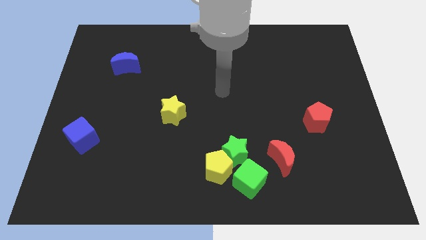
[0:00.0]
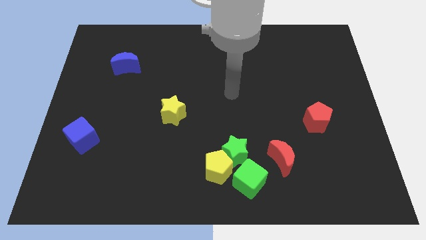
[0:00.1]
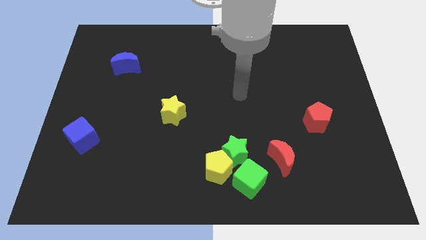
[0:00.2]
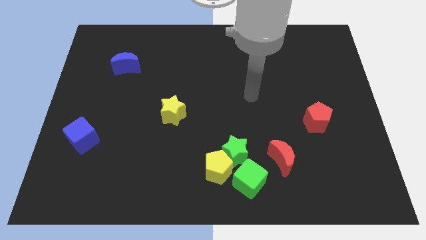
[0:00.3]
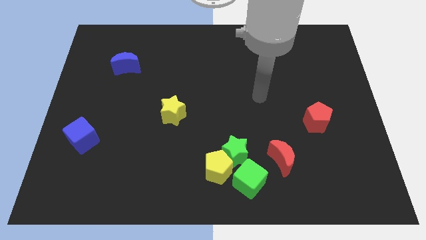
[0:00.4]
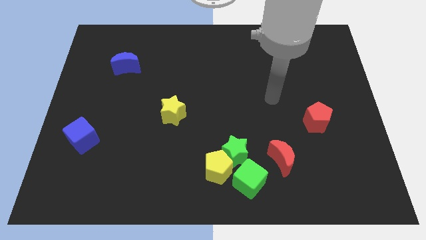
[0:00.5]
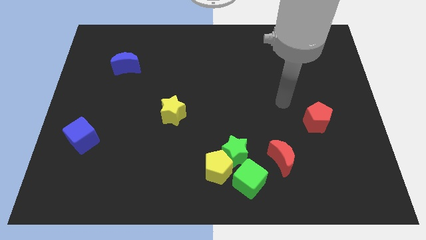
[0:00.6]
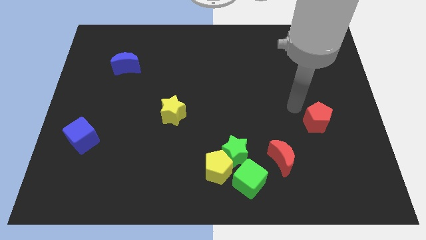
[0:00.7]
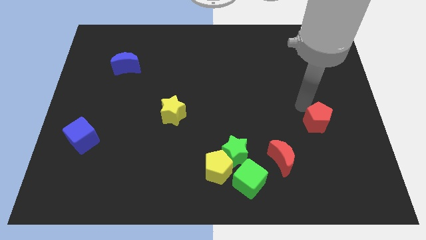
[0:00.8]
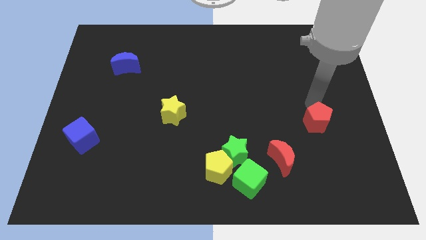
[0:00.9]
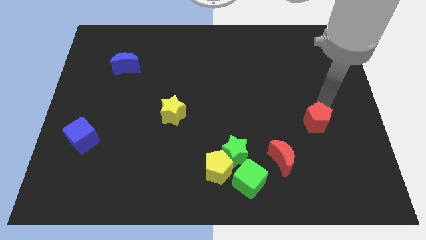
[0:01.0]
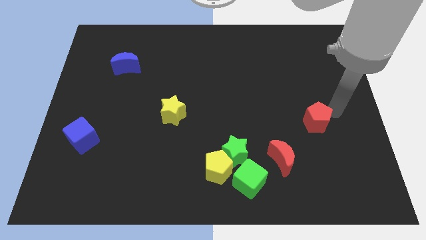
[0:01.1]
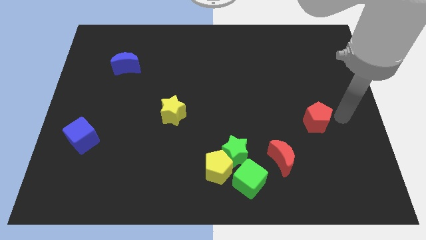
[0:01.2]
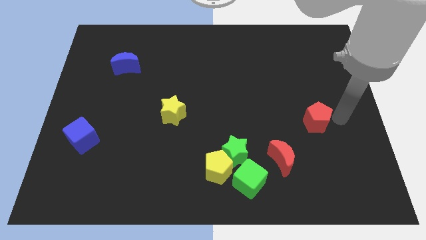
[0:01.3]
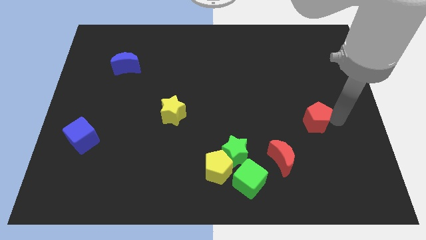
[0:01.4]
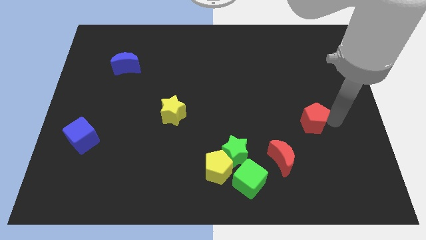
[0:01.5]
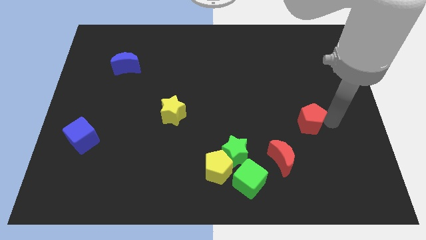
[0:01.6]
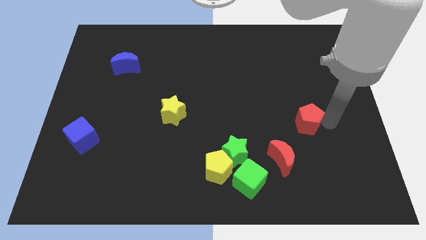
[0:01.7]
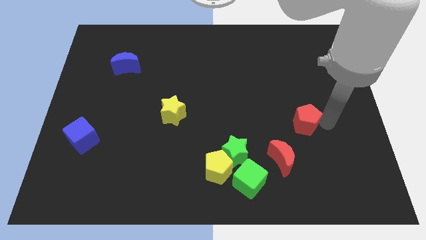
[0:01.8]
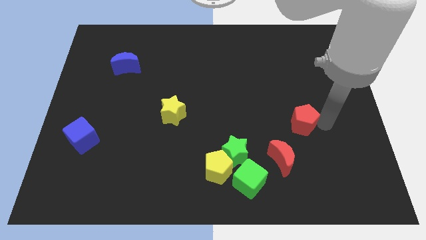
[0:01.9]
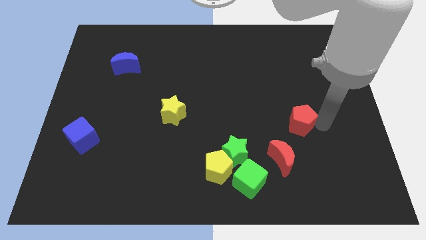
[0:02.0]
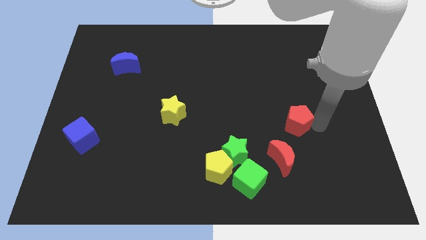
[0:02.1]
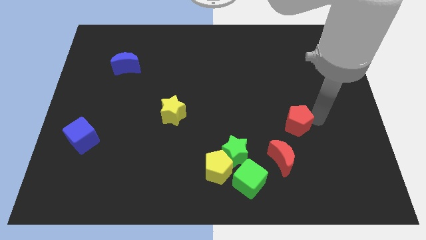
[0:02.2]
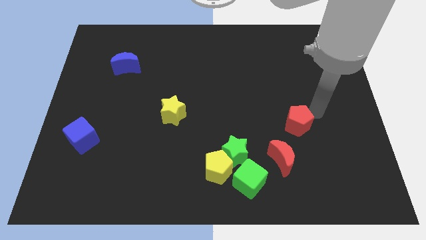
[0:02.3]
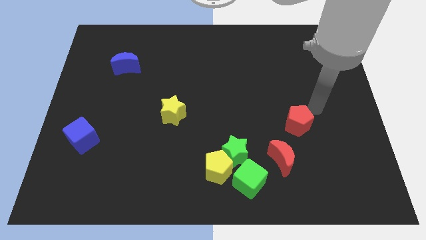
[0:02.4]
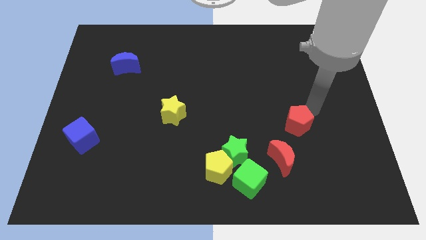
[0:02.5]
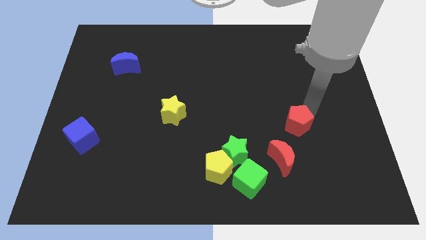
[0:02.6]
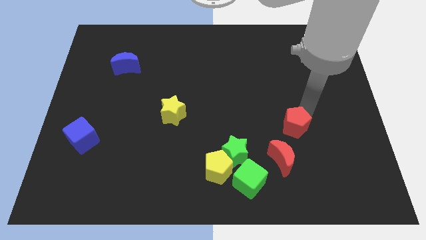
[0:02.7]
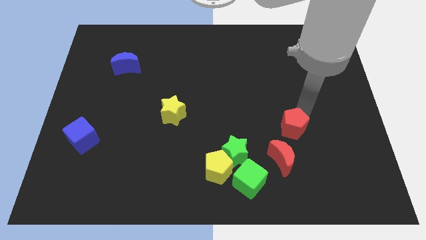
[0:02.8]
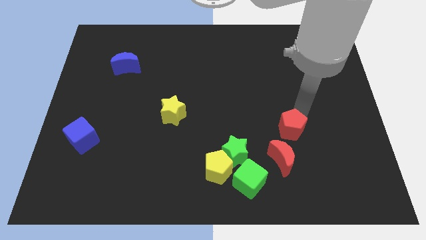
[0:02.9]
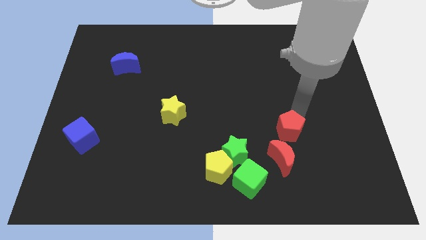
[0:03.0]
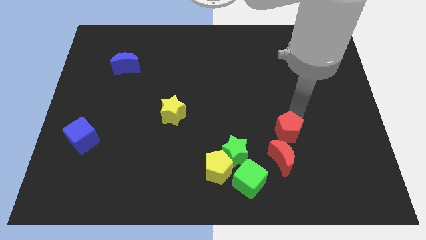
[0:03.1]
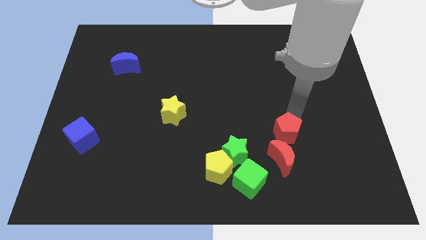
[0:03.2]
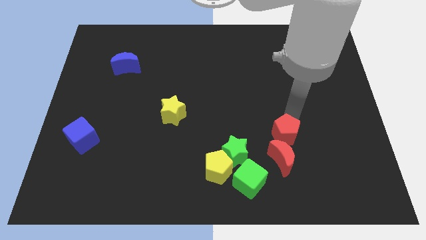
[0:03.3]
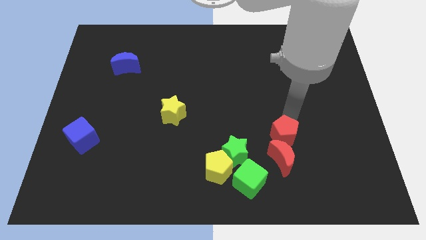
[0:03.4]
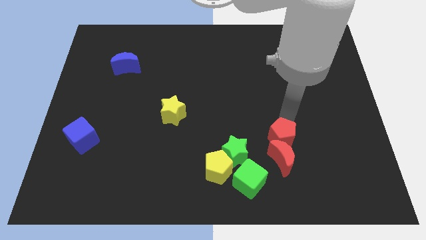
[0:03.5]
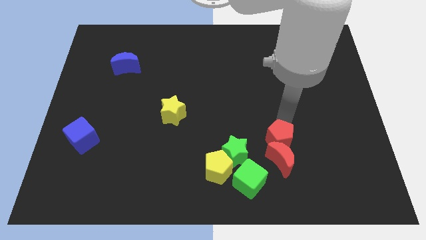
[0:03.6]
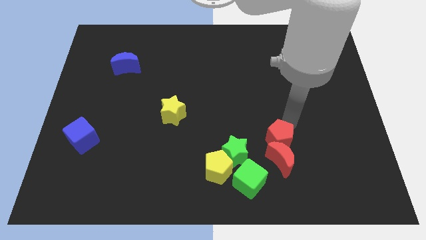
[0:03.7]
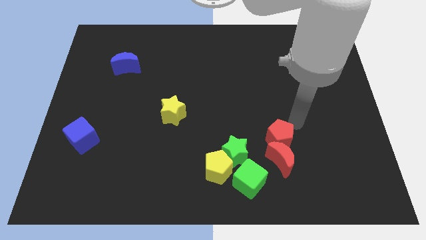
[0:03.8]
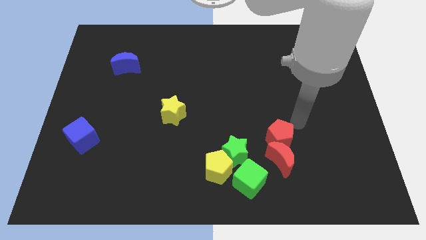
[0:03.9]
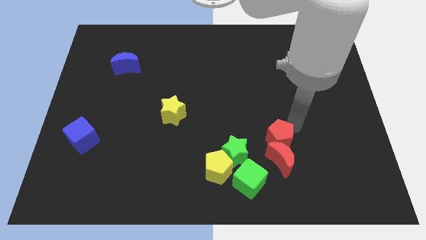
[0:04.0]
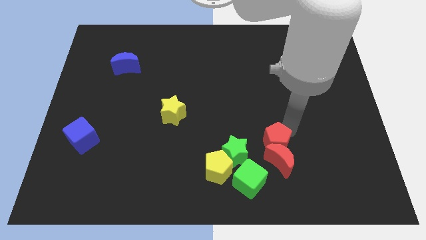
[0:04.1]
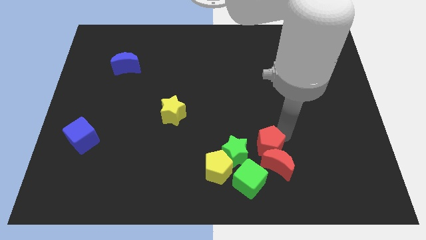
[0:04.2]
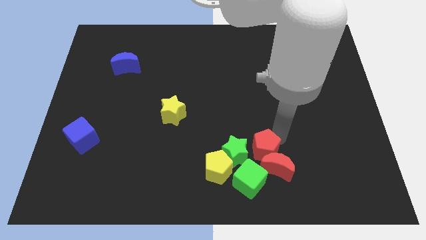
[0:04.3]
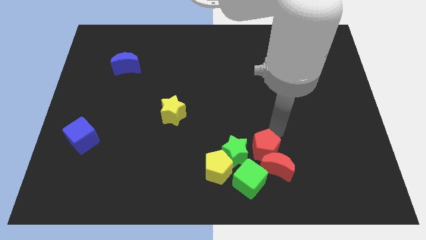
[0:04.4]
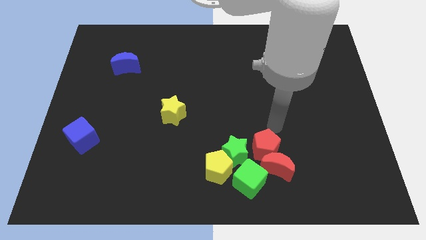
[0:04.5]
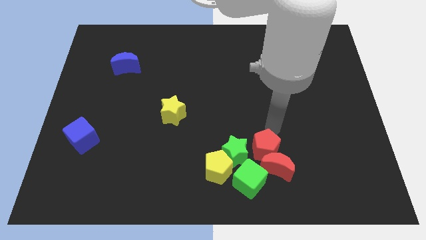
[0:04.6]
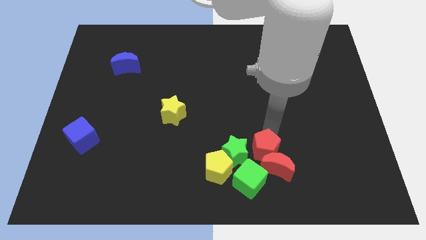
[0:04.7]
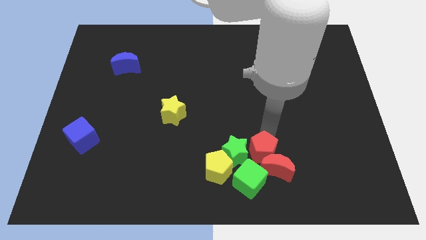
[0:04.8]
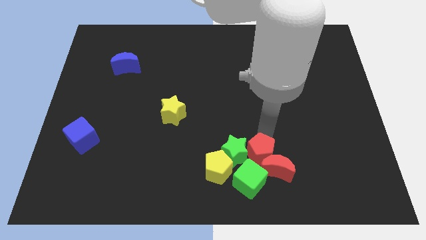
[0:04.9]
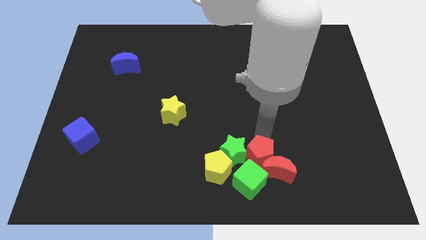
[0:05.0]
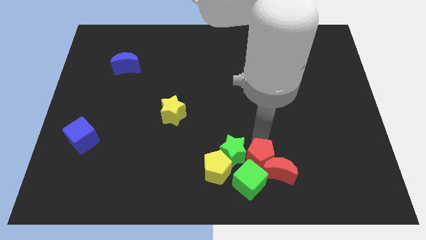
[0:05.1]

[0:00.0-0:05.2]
put the red pentagon next to the green cube

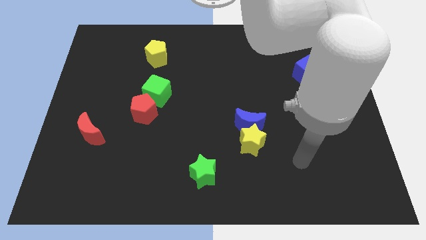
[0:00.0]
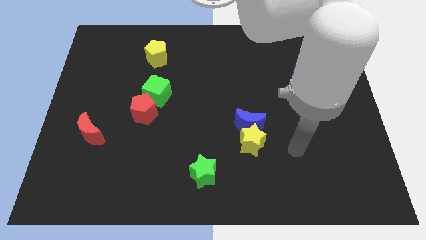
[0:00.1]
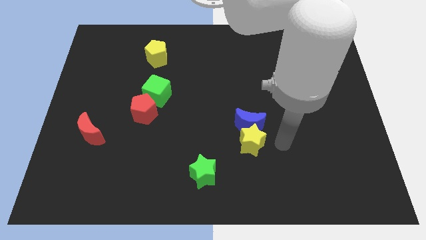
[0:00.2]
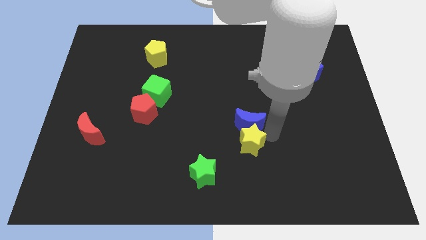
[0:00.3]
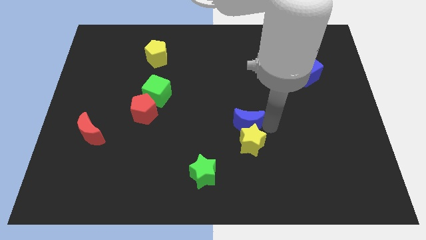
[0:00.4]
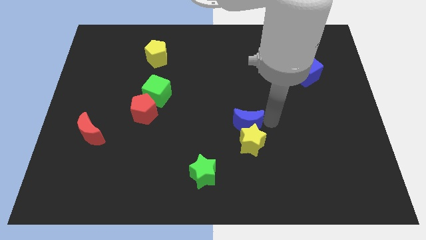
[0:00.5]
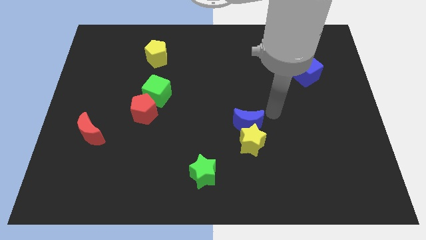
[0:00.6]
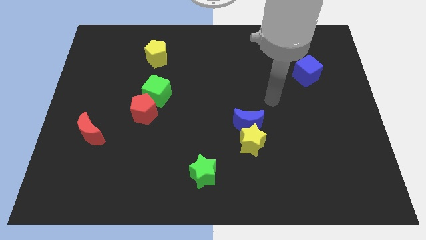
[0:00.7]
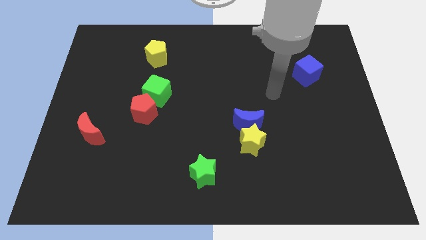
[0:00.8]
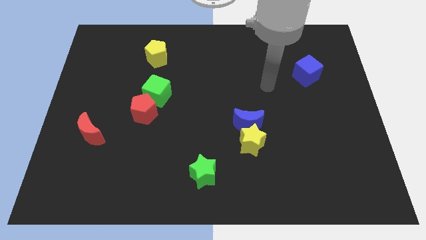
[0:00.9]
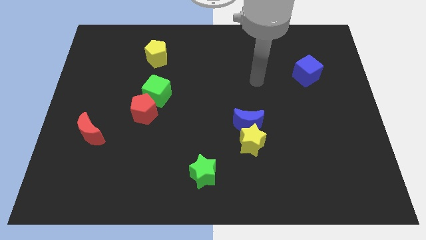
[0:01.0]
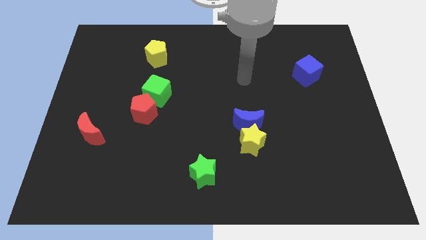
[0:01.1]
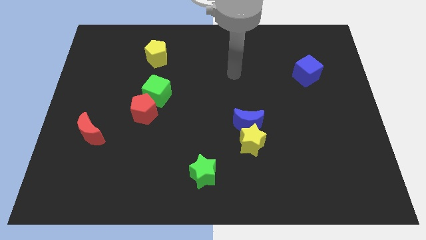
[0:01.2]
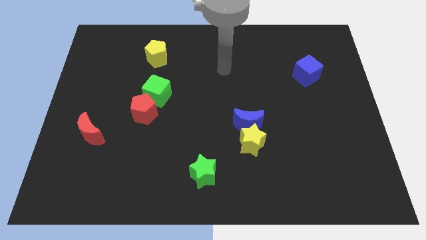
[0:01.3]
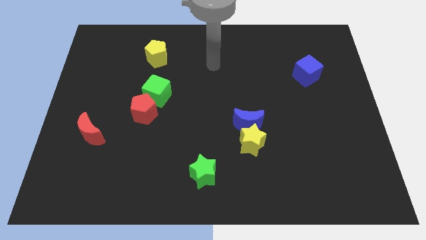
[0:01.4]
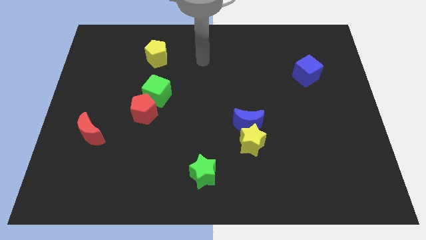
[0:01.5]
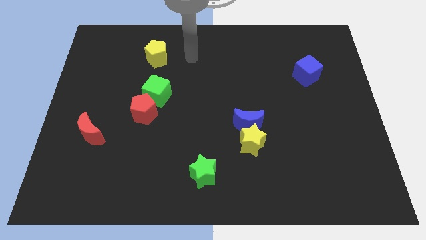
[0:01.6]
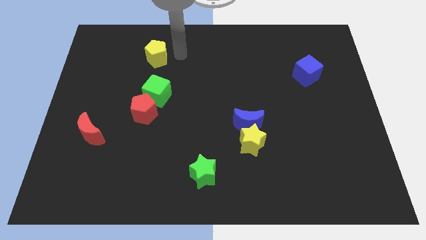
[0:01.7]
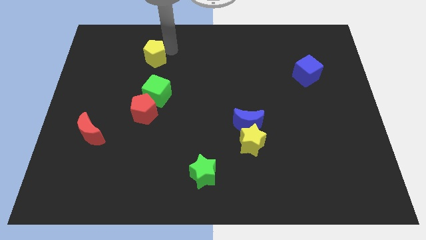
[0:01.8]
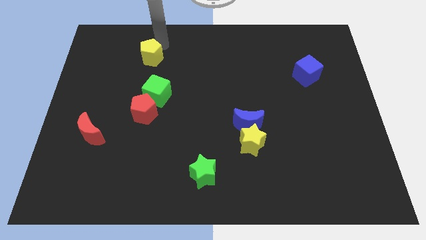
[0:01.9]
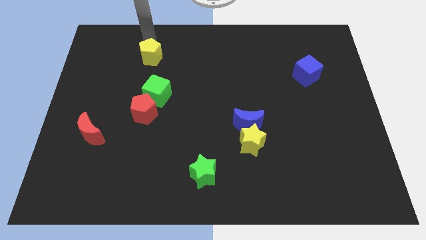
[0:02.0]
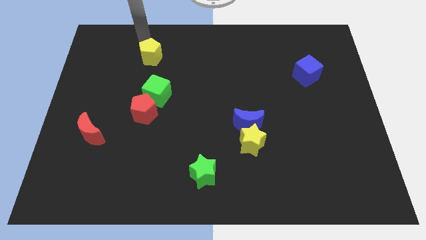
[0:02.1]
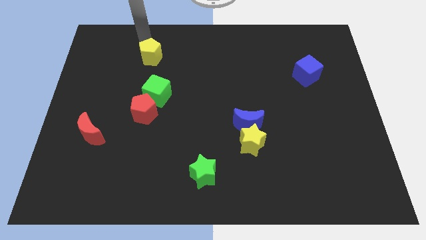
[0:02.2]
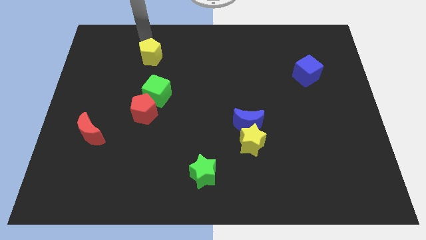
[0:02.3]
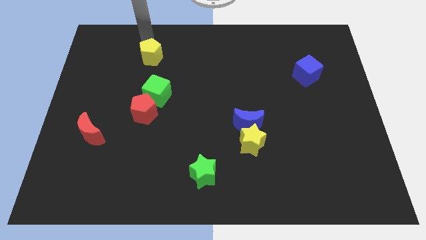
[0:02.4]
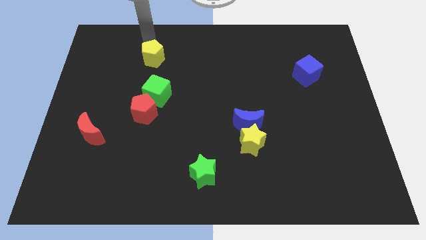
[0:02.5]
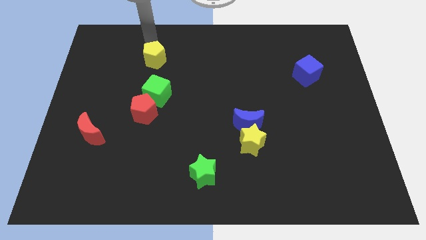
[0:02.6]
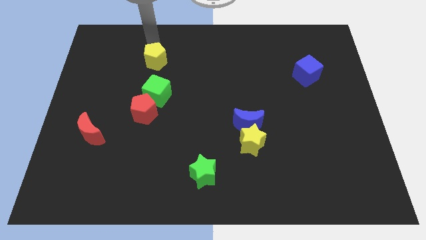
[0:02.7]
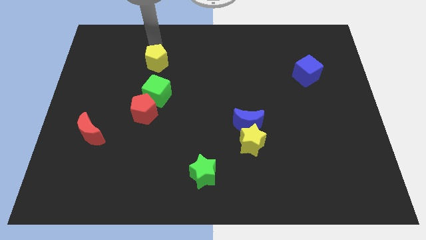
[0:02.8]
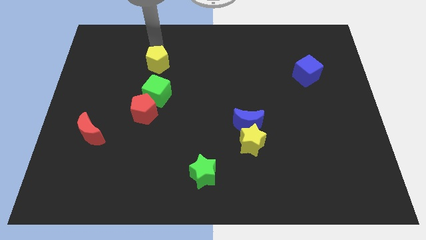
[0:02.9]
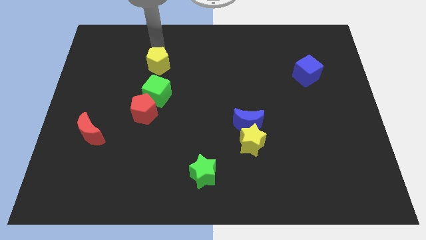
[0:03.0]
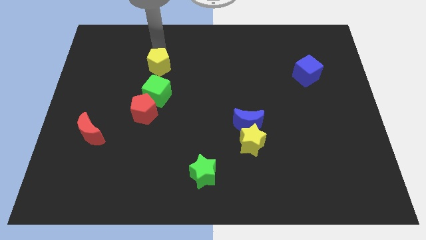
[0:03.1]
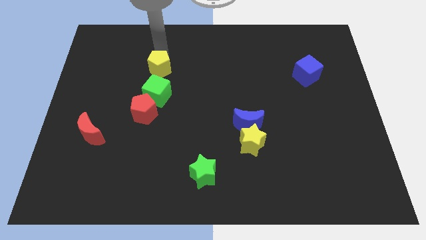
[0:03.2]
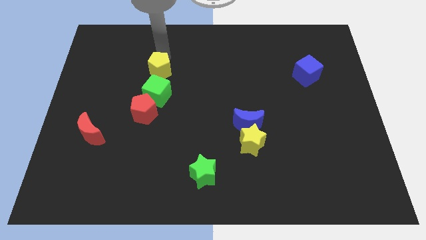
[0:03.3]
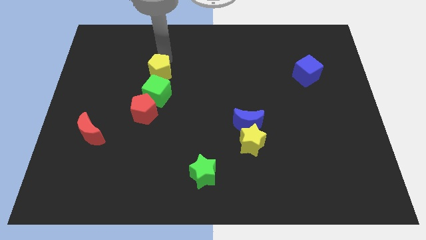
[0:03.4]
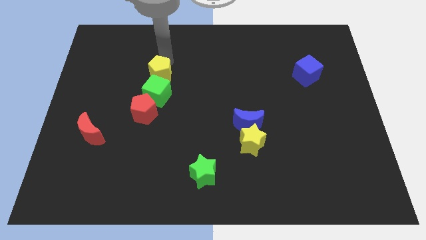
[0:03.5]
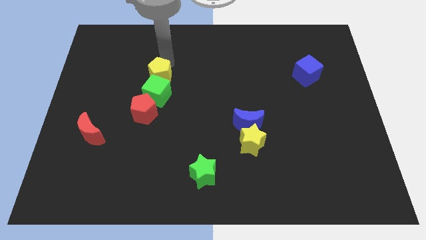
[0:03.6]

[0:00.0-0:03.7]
put the yellow pentagon towards the green cube
